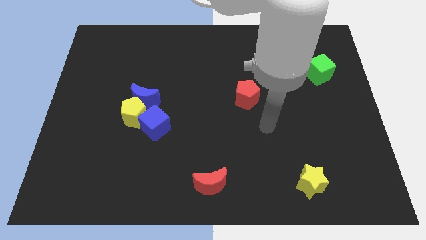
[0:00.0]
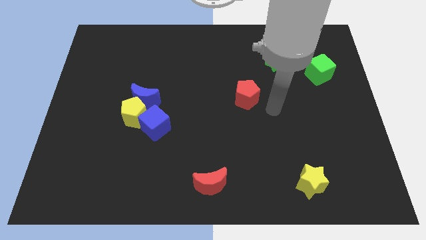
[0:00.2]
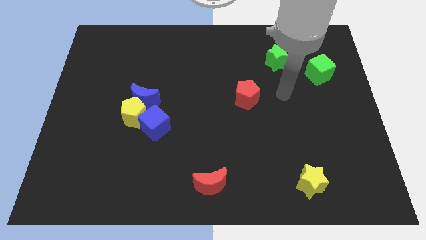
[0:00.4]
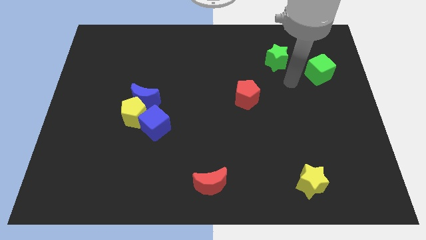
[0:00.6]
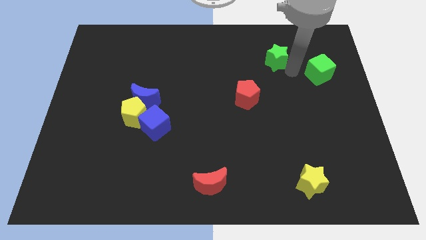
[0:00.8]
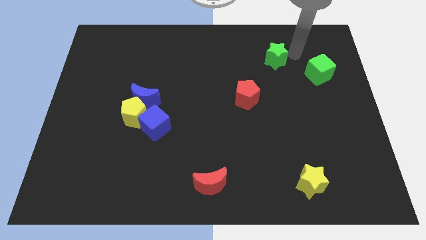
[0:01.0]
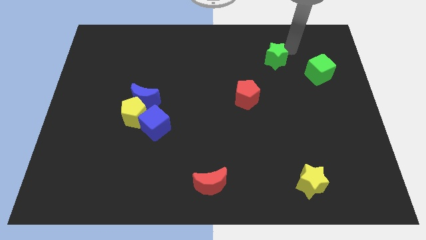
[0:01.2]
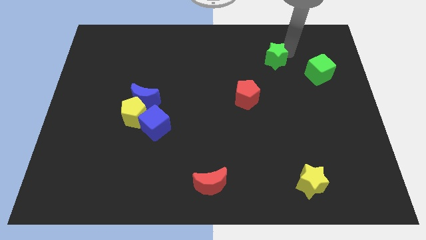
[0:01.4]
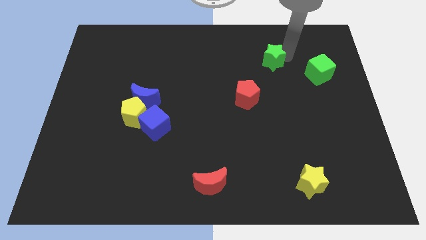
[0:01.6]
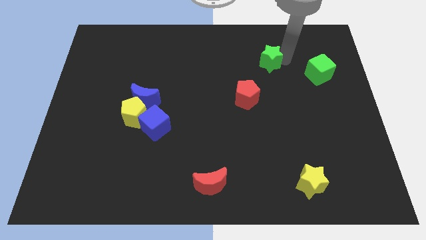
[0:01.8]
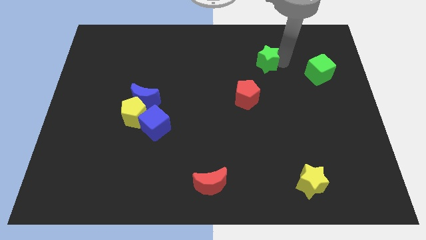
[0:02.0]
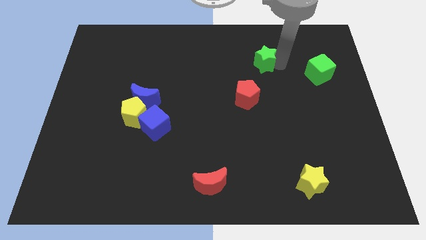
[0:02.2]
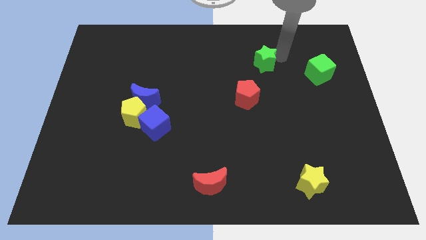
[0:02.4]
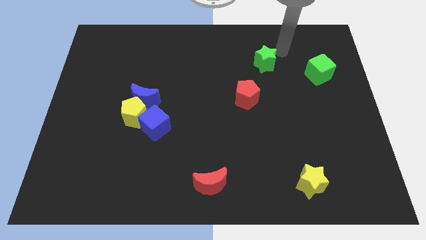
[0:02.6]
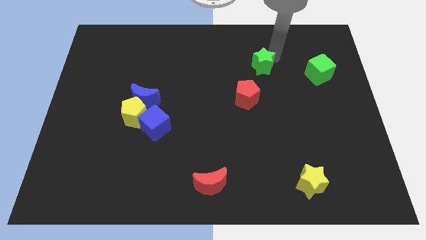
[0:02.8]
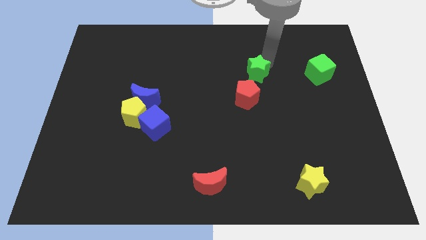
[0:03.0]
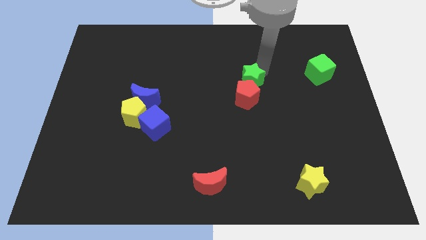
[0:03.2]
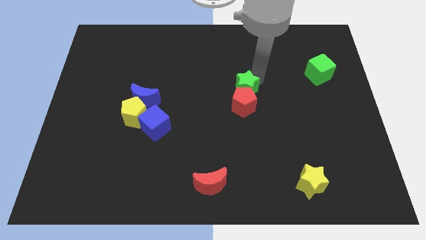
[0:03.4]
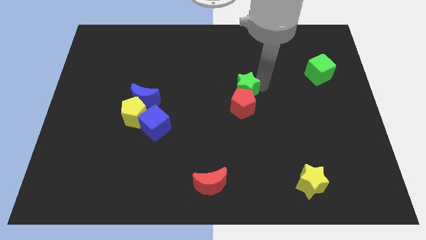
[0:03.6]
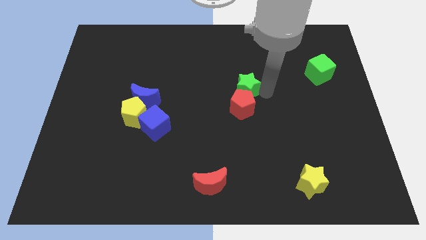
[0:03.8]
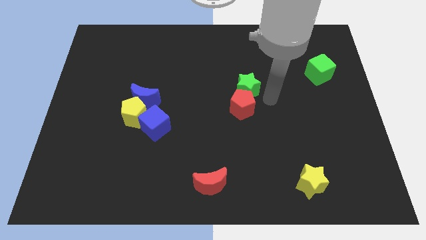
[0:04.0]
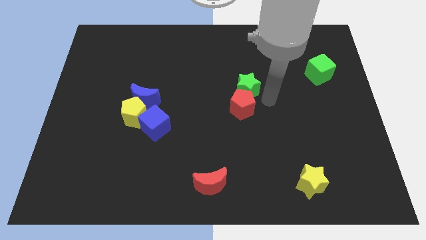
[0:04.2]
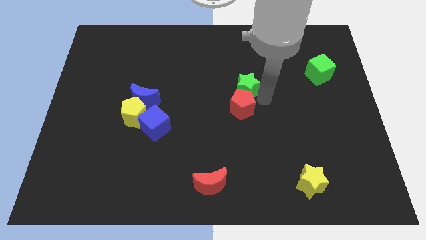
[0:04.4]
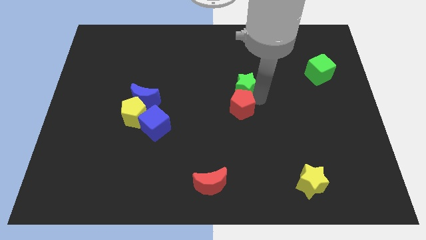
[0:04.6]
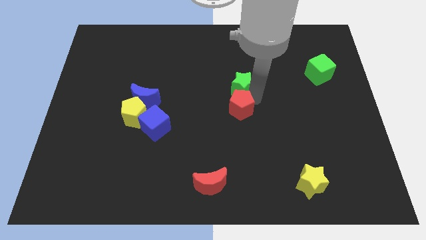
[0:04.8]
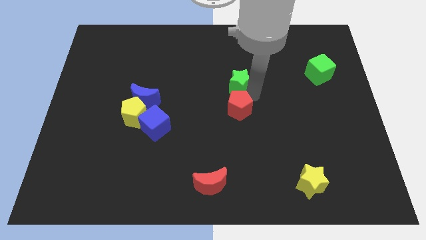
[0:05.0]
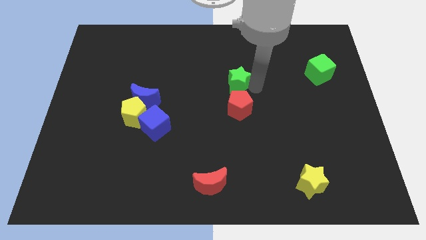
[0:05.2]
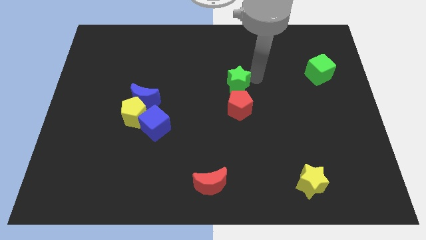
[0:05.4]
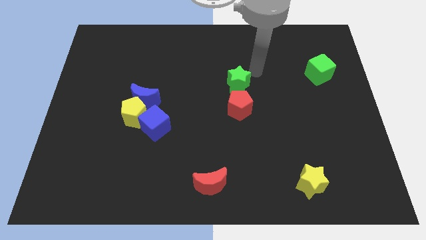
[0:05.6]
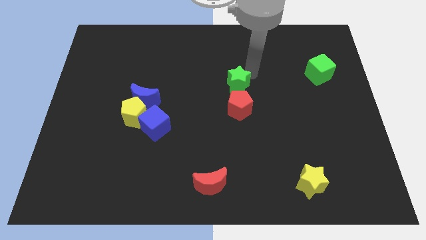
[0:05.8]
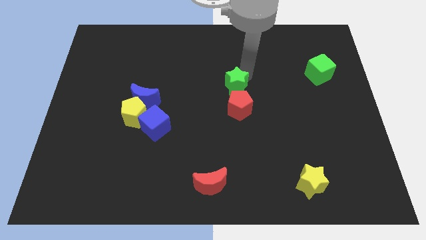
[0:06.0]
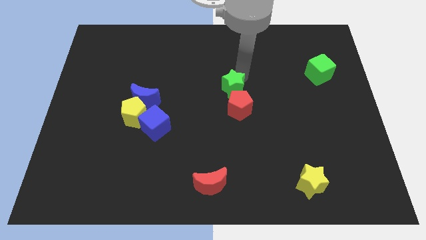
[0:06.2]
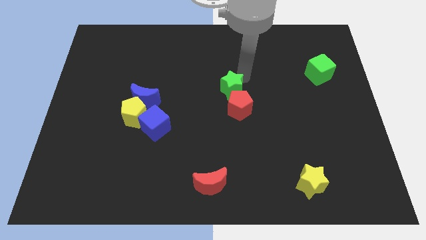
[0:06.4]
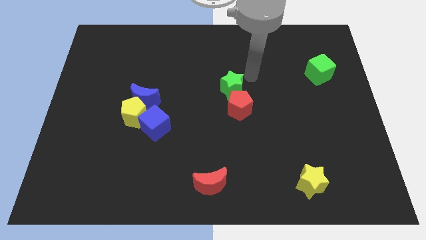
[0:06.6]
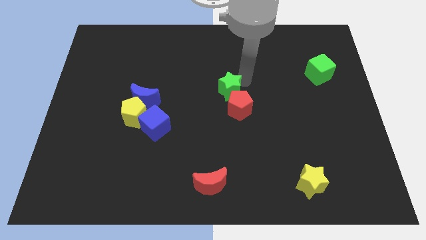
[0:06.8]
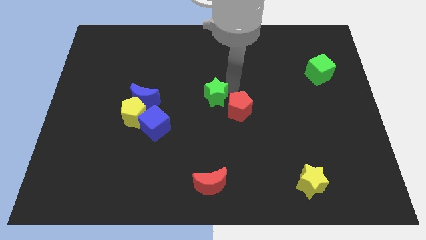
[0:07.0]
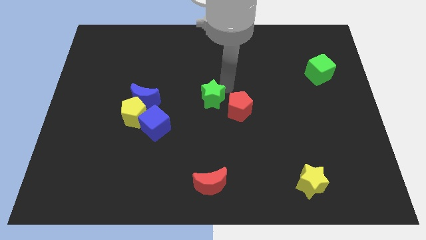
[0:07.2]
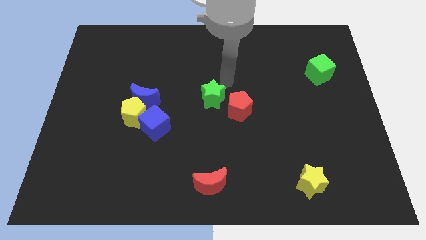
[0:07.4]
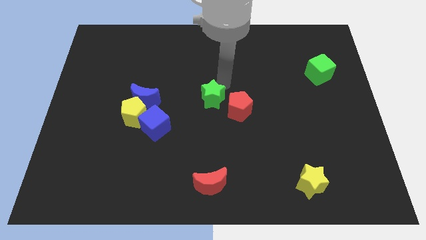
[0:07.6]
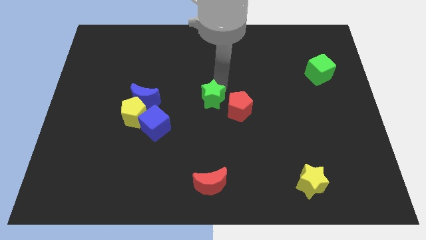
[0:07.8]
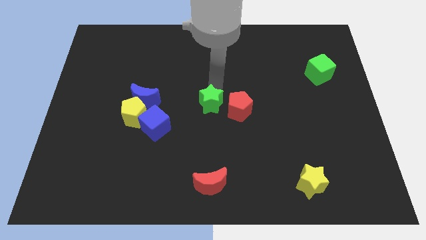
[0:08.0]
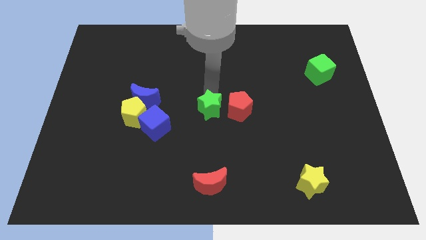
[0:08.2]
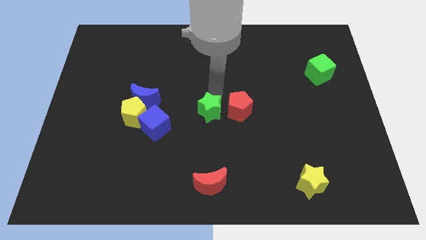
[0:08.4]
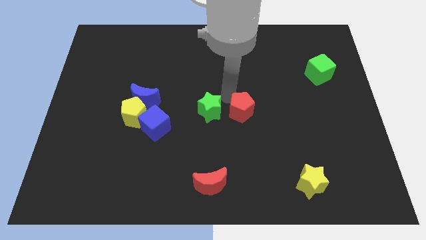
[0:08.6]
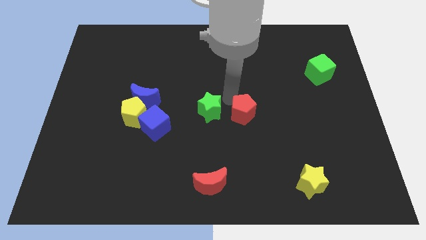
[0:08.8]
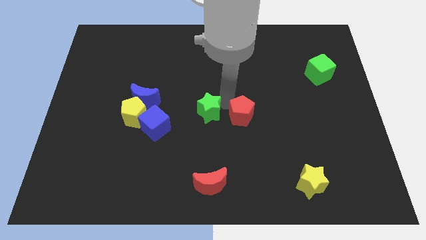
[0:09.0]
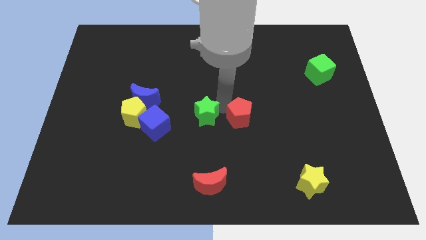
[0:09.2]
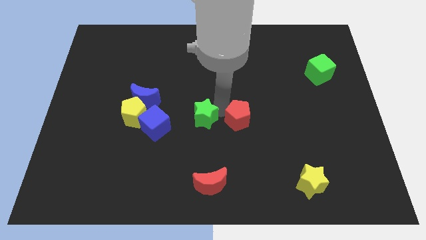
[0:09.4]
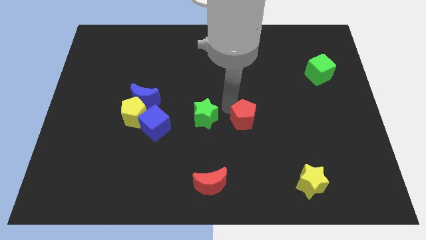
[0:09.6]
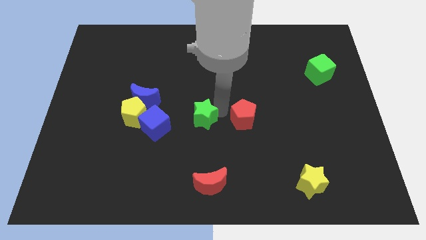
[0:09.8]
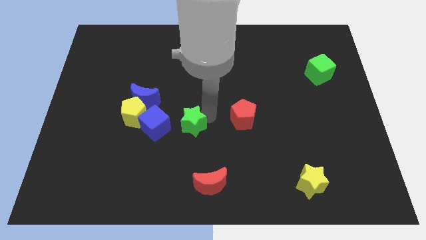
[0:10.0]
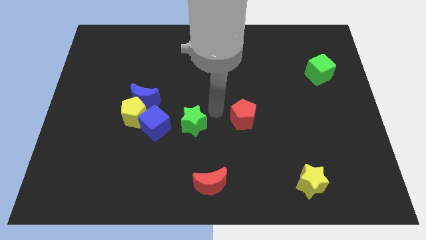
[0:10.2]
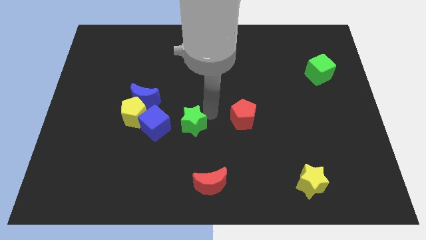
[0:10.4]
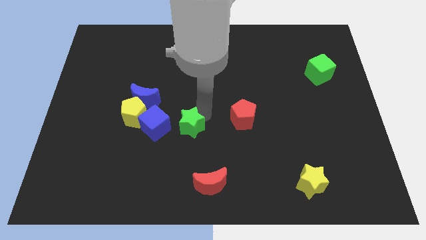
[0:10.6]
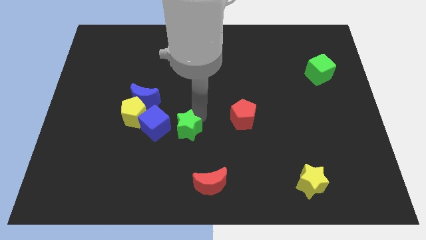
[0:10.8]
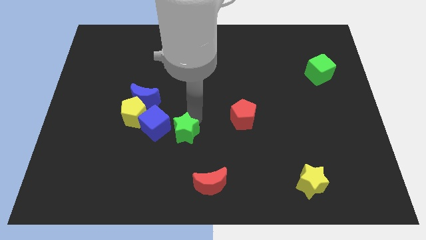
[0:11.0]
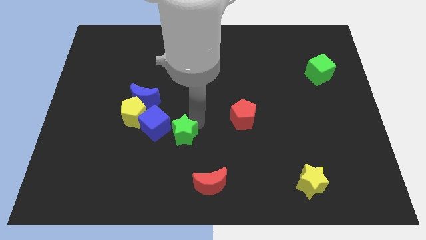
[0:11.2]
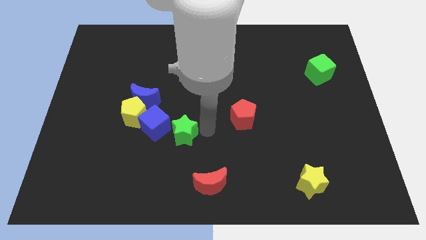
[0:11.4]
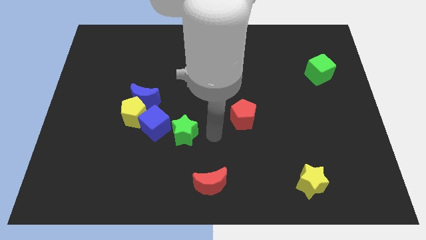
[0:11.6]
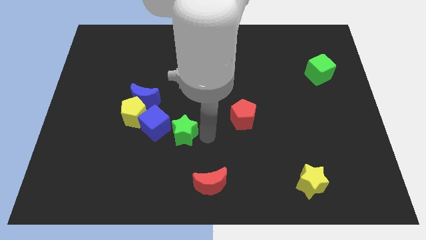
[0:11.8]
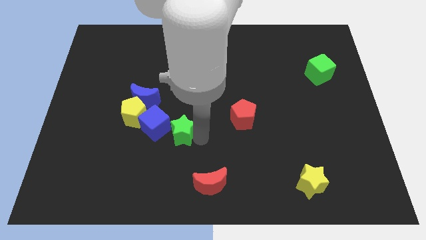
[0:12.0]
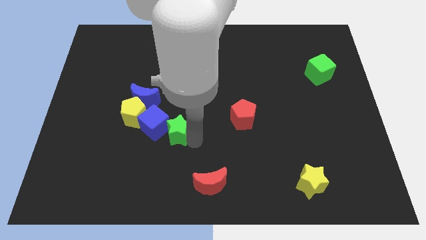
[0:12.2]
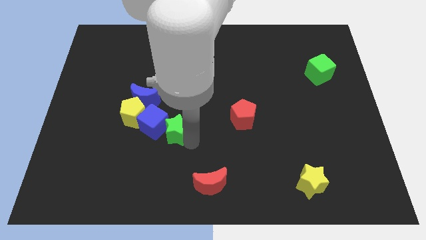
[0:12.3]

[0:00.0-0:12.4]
push the green star to the bottom right of the yellow pentagon

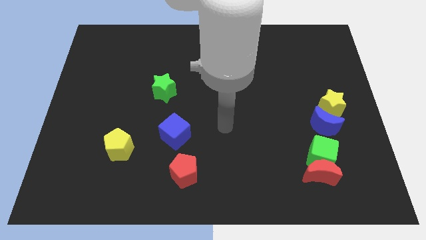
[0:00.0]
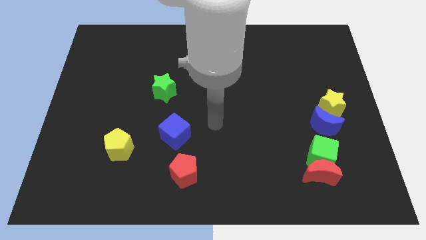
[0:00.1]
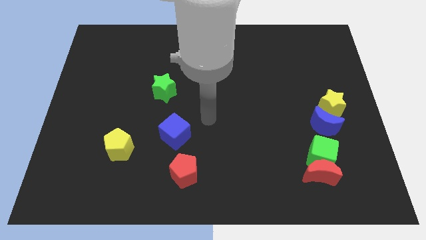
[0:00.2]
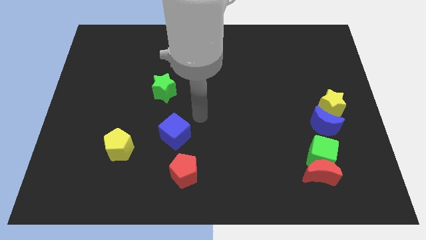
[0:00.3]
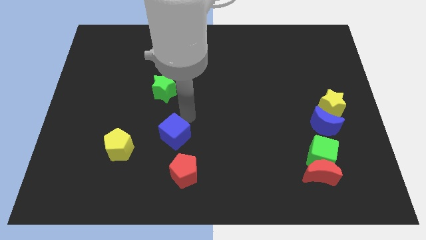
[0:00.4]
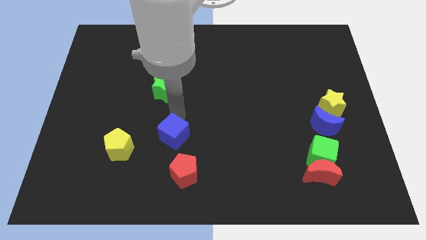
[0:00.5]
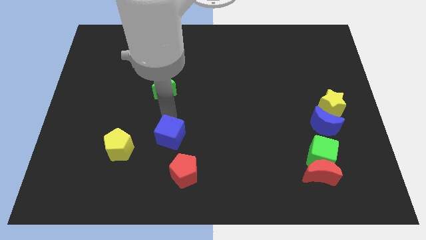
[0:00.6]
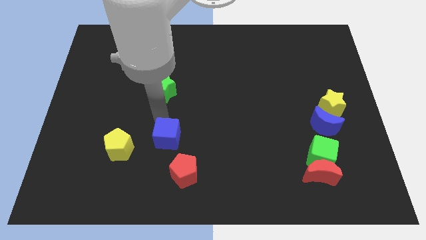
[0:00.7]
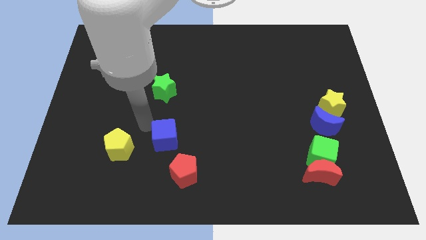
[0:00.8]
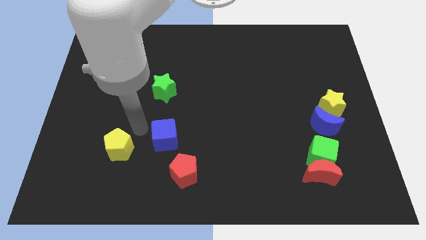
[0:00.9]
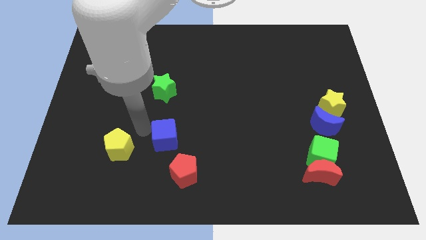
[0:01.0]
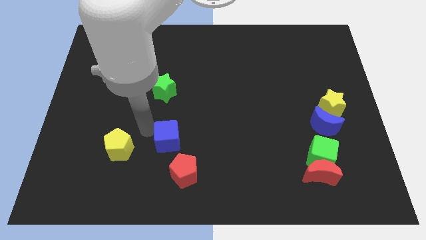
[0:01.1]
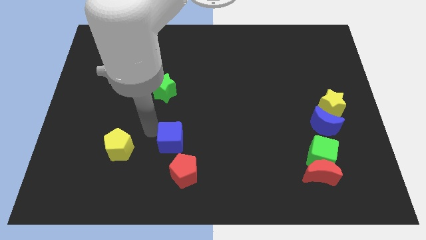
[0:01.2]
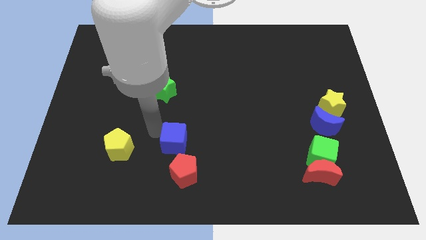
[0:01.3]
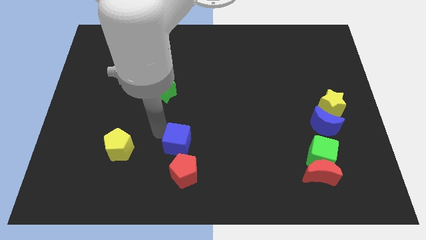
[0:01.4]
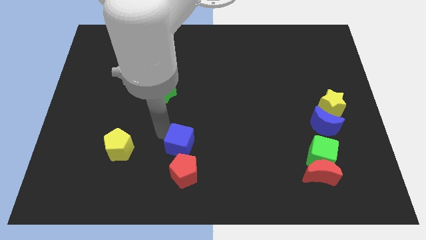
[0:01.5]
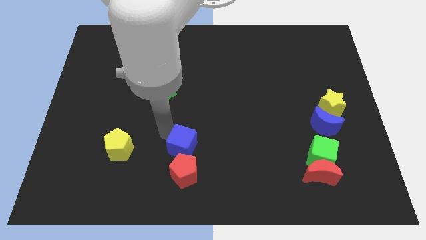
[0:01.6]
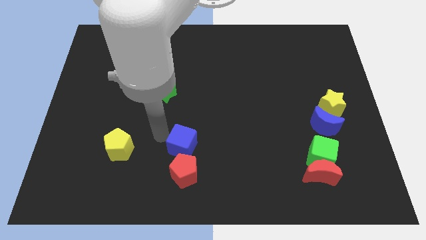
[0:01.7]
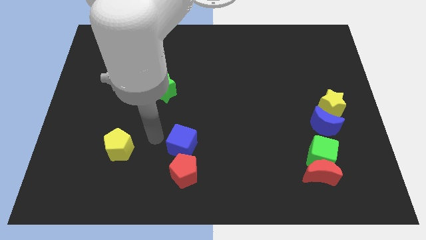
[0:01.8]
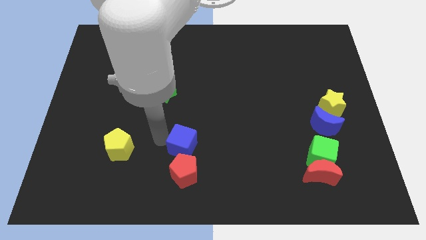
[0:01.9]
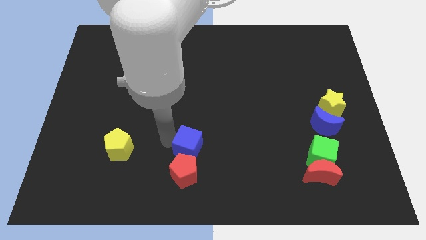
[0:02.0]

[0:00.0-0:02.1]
slide the blue cube diagonally up and to the right of the red pentagon
